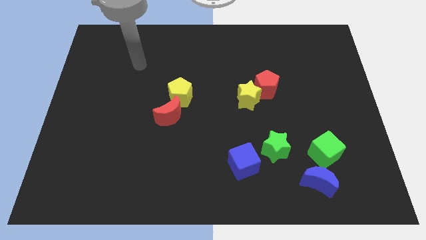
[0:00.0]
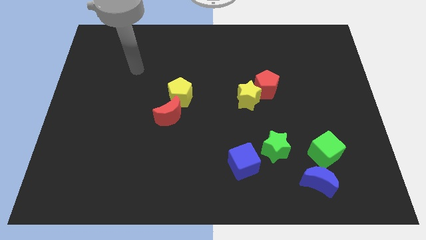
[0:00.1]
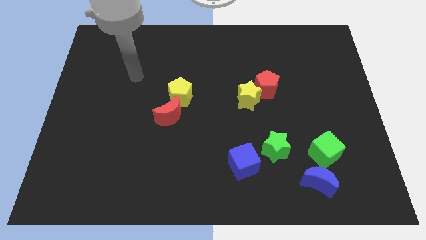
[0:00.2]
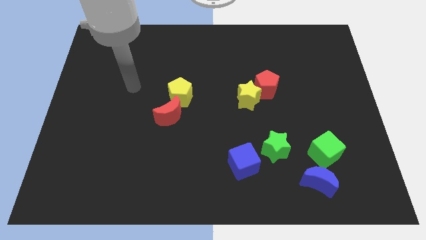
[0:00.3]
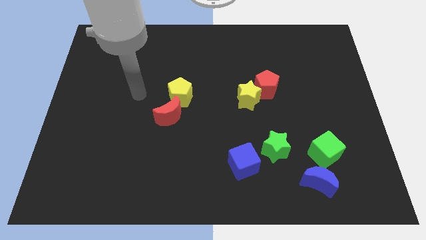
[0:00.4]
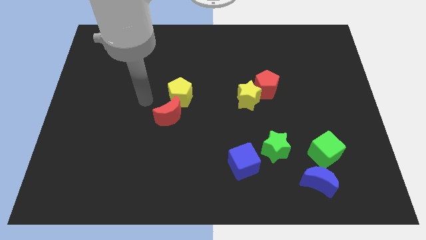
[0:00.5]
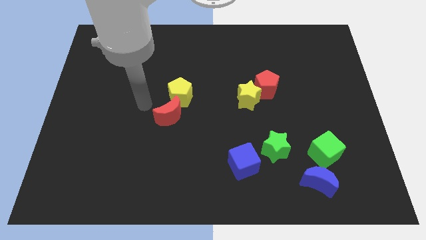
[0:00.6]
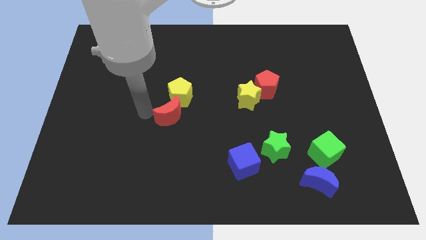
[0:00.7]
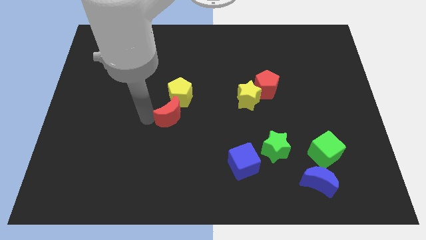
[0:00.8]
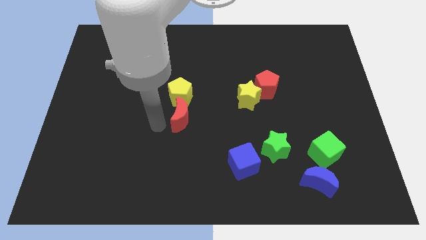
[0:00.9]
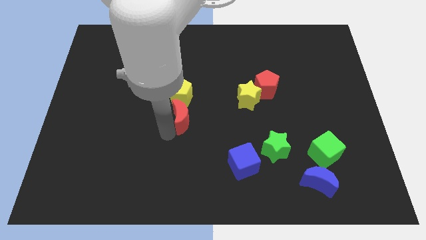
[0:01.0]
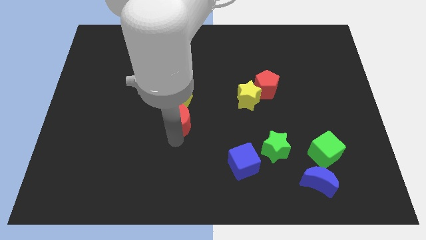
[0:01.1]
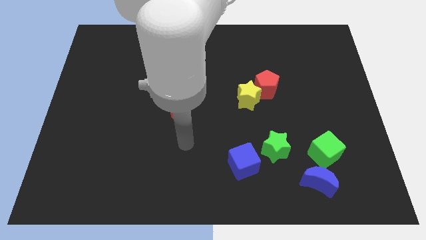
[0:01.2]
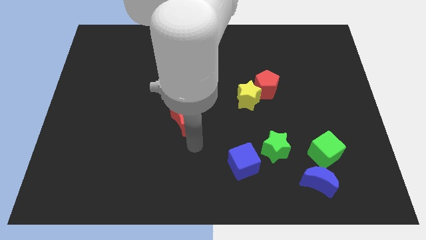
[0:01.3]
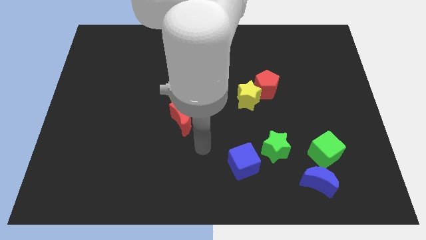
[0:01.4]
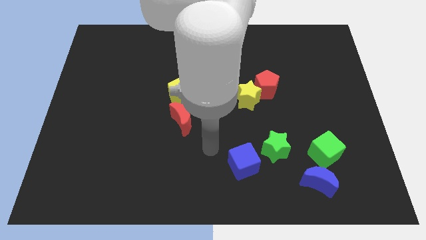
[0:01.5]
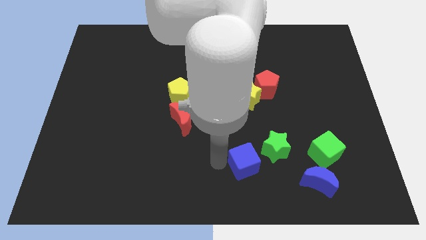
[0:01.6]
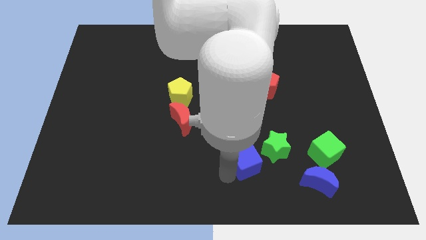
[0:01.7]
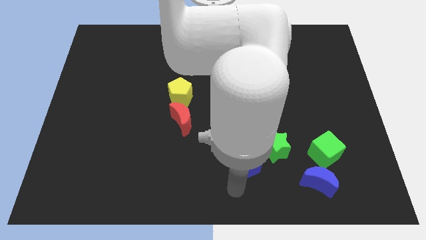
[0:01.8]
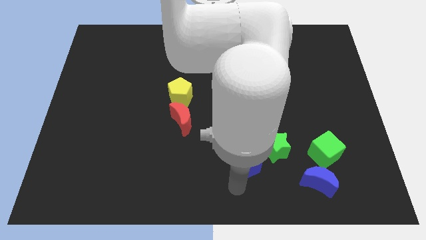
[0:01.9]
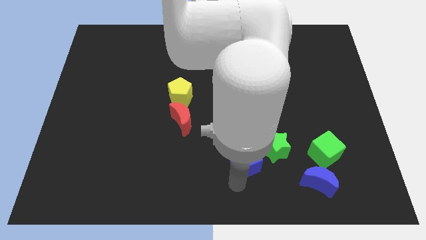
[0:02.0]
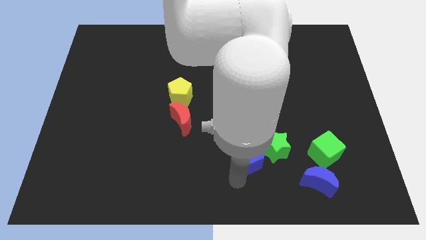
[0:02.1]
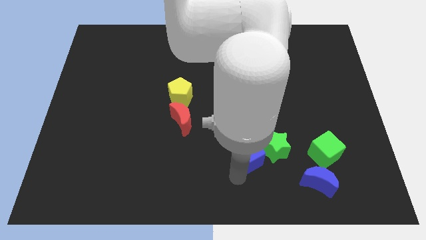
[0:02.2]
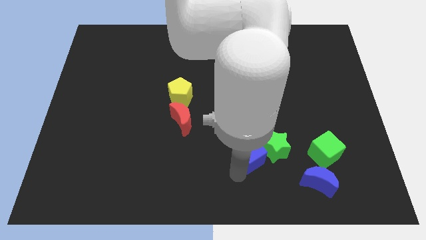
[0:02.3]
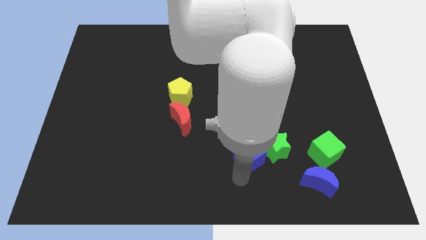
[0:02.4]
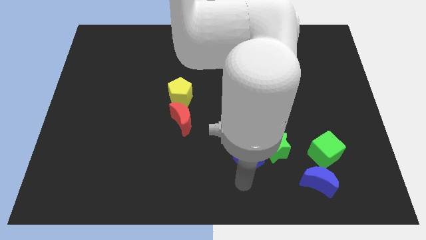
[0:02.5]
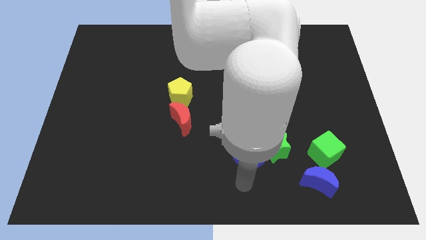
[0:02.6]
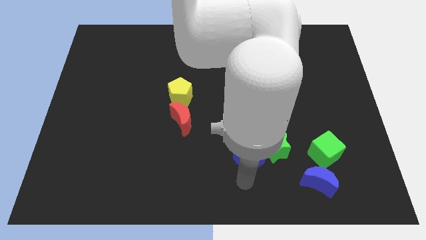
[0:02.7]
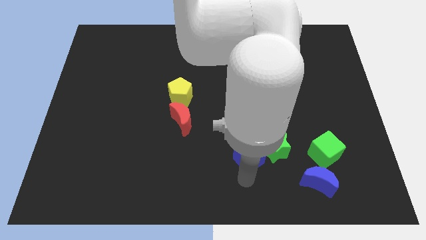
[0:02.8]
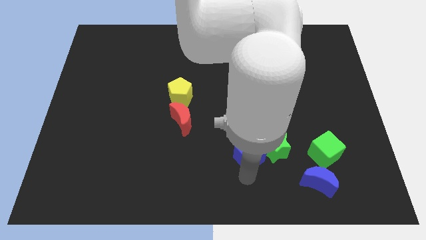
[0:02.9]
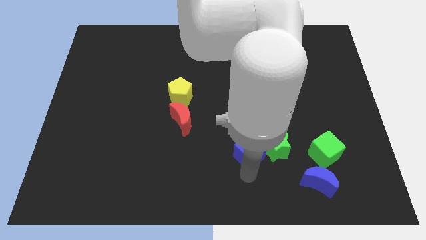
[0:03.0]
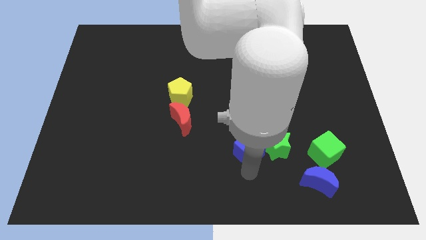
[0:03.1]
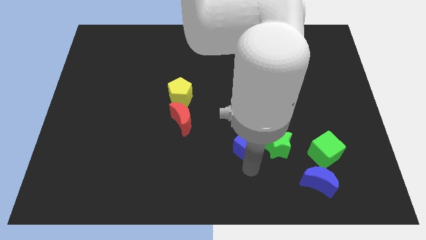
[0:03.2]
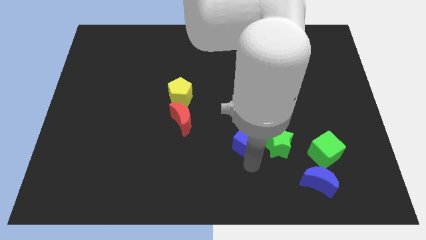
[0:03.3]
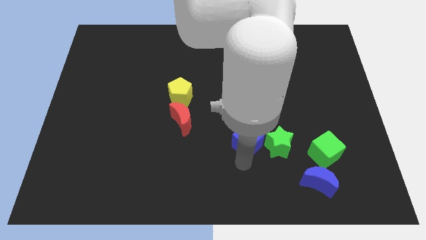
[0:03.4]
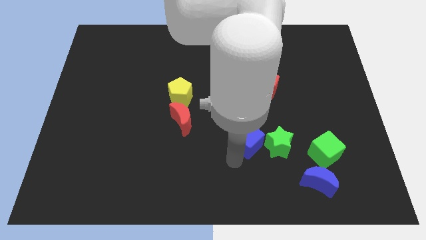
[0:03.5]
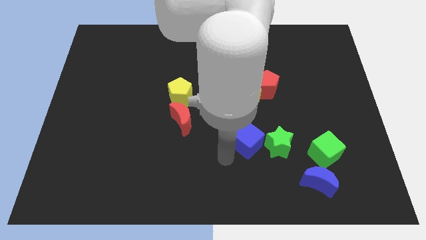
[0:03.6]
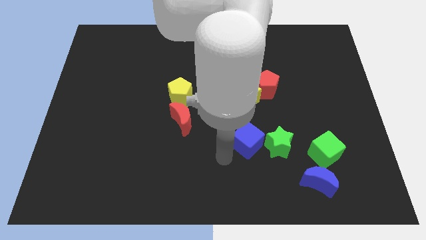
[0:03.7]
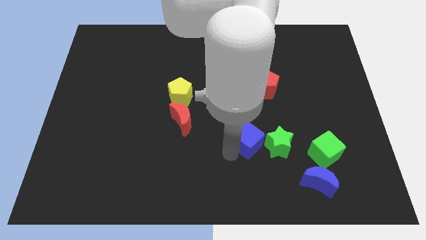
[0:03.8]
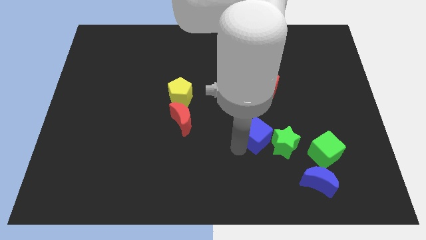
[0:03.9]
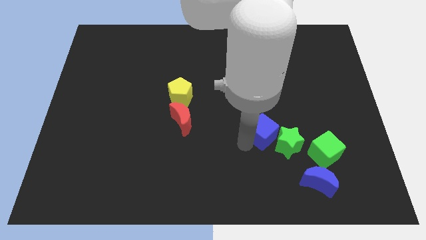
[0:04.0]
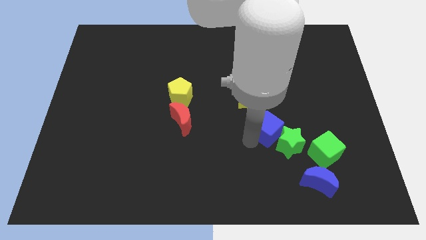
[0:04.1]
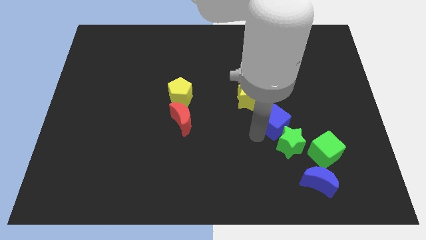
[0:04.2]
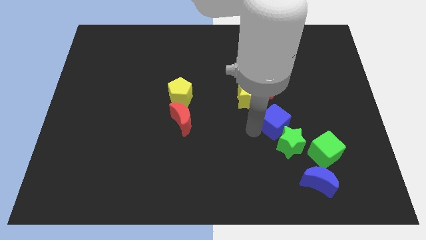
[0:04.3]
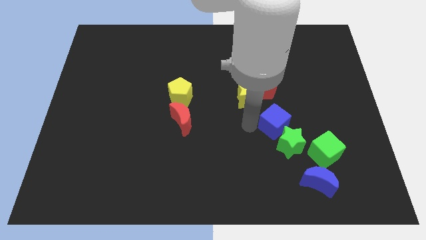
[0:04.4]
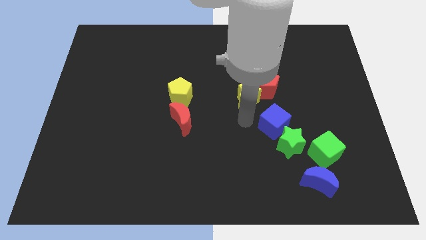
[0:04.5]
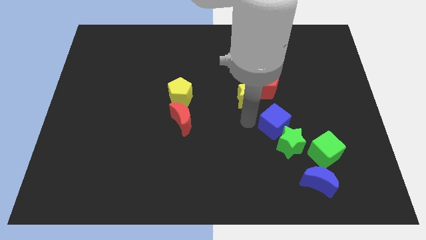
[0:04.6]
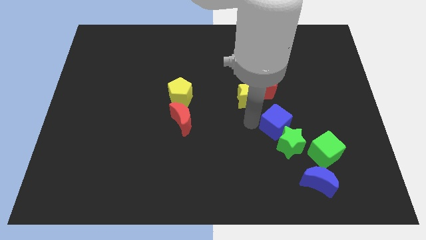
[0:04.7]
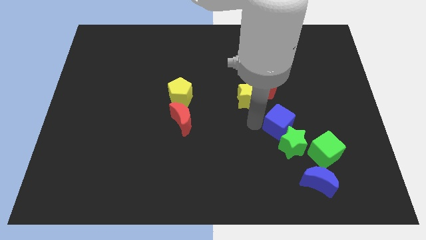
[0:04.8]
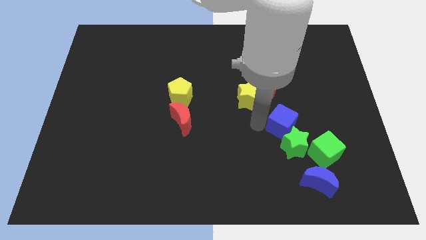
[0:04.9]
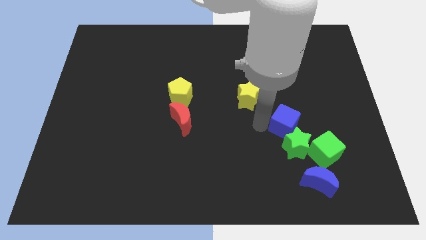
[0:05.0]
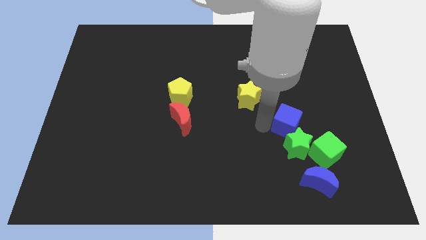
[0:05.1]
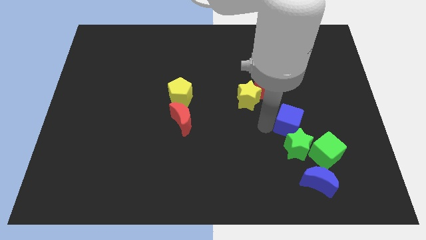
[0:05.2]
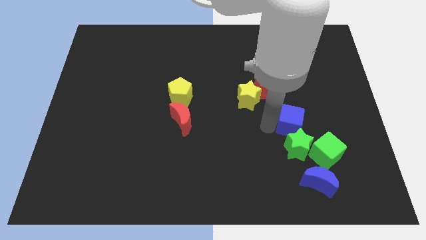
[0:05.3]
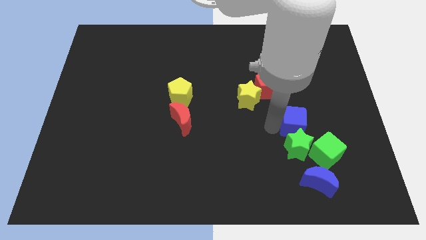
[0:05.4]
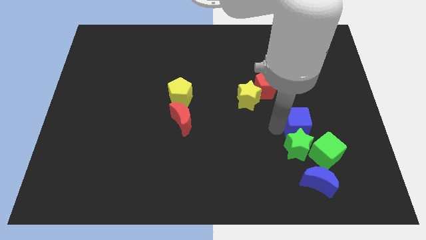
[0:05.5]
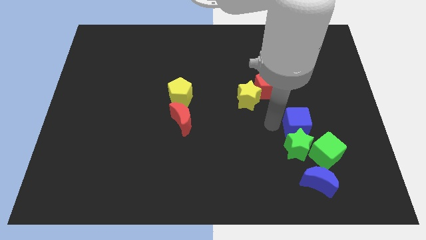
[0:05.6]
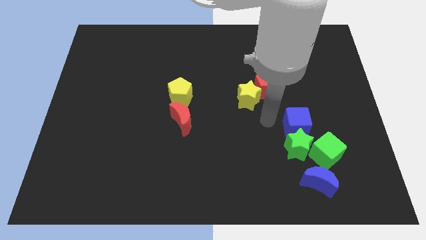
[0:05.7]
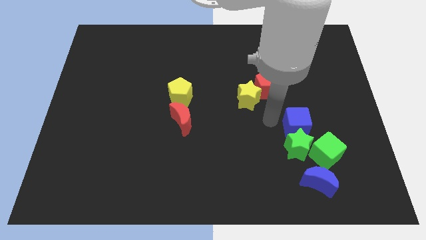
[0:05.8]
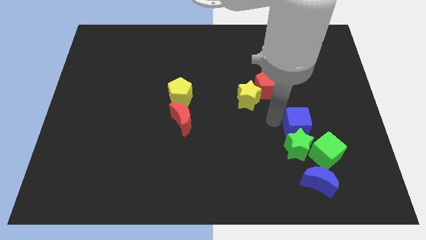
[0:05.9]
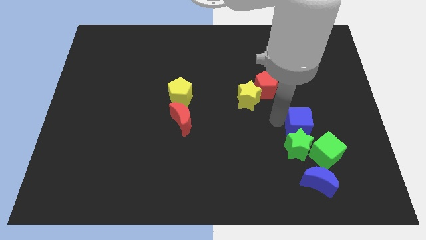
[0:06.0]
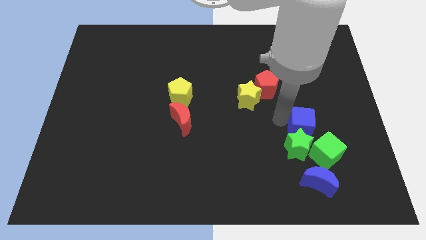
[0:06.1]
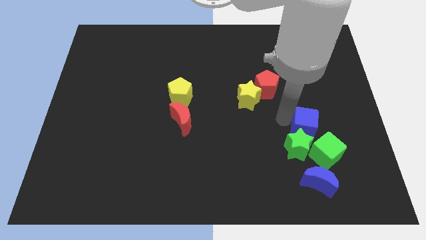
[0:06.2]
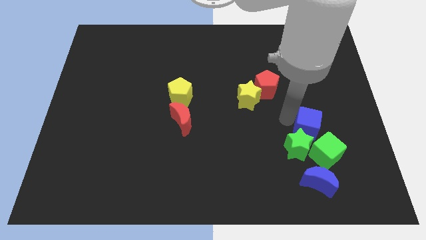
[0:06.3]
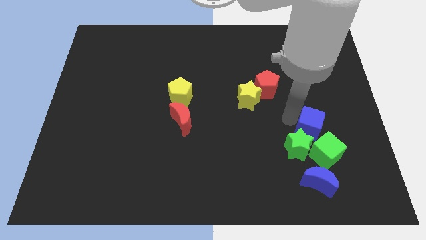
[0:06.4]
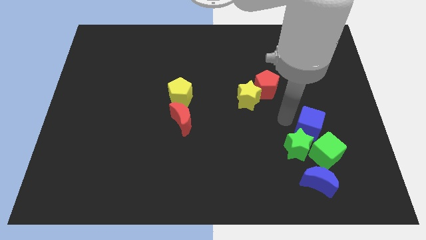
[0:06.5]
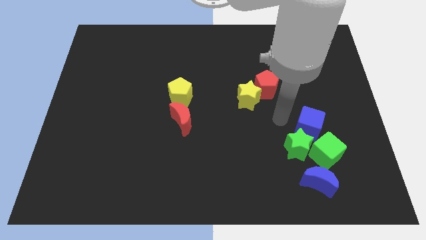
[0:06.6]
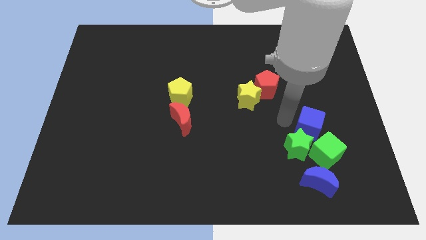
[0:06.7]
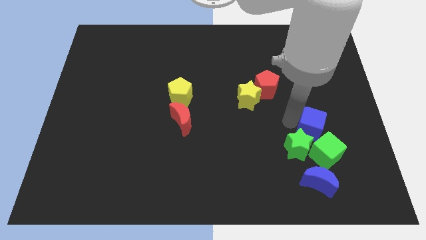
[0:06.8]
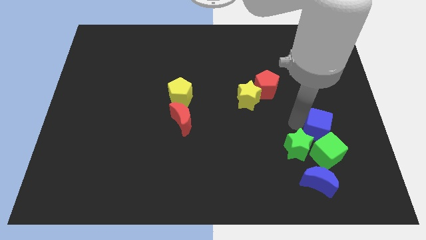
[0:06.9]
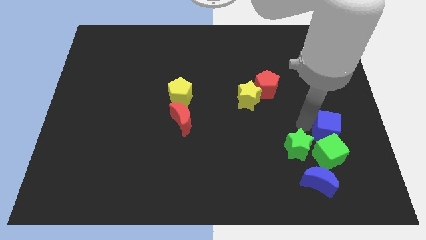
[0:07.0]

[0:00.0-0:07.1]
put the blue cube diagonally up and to the right of the green cube

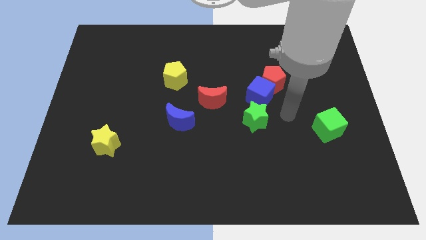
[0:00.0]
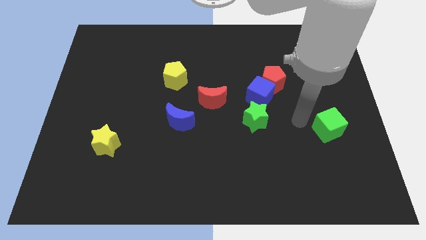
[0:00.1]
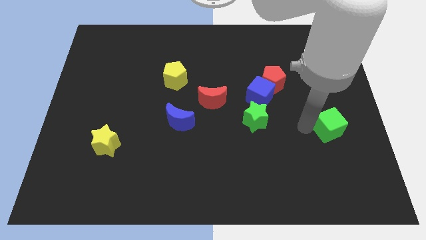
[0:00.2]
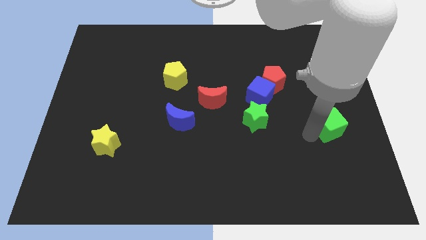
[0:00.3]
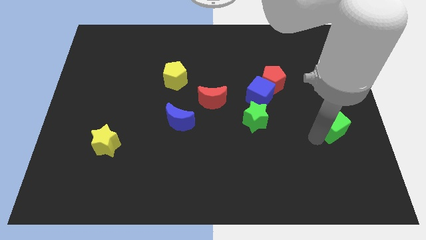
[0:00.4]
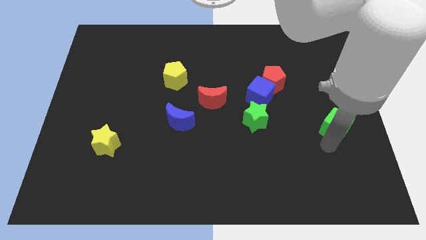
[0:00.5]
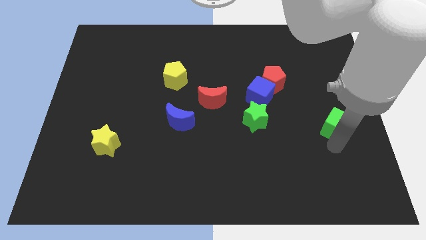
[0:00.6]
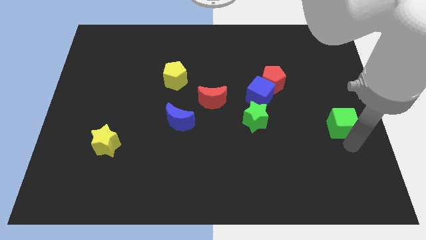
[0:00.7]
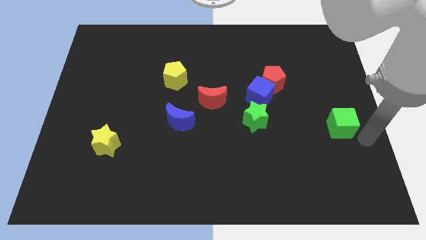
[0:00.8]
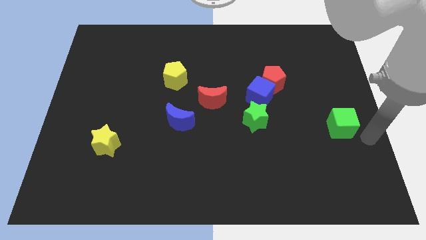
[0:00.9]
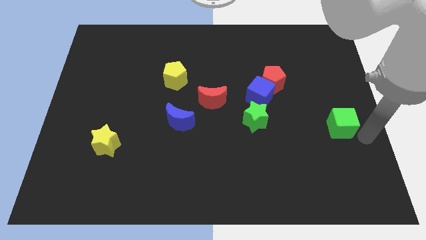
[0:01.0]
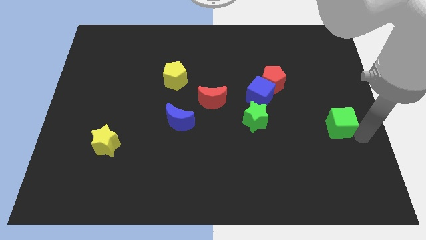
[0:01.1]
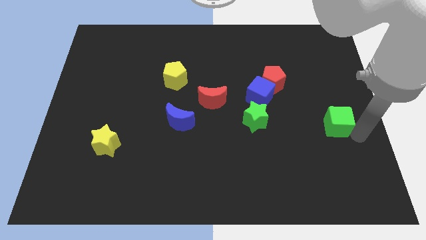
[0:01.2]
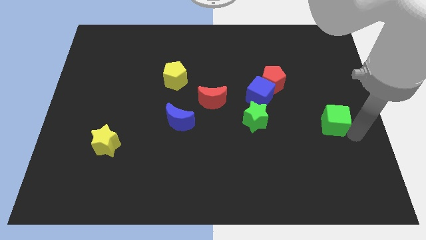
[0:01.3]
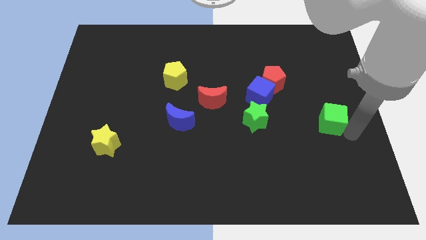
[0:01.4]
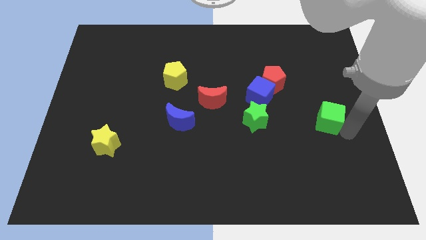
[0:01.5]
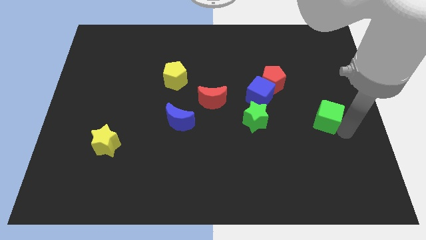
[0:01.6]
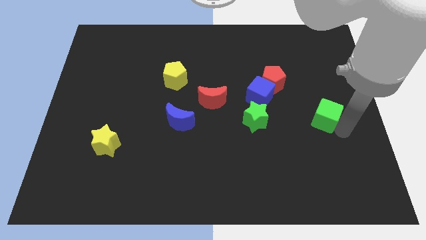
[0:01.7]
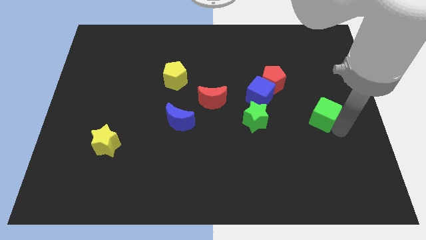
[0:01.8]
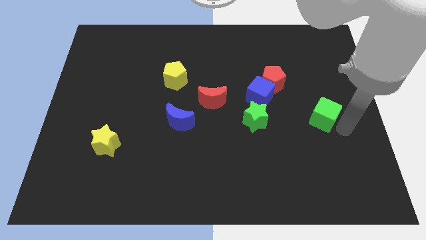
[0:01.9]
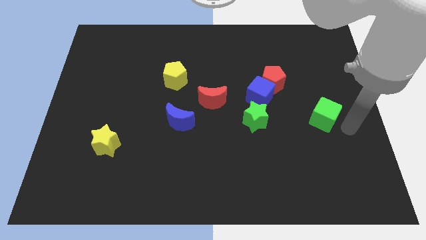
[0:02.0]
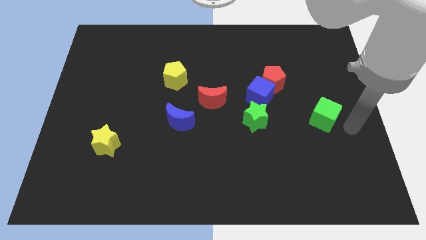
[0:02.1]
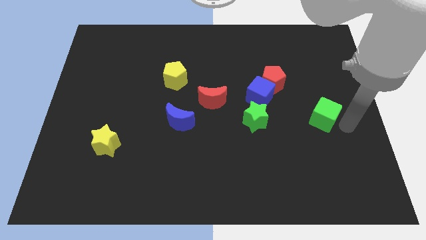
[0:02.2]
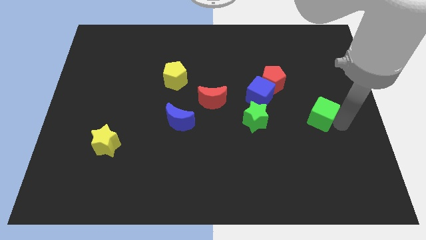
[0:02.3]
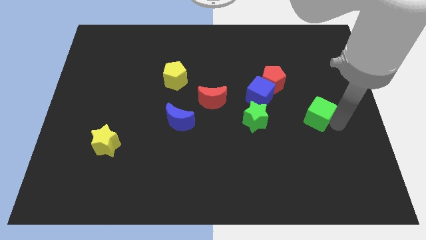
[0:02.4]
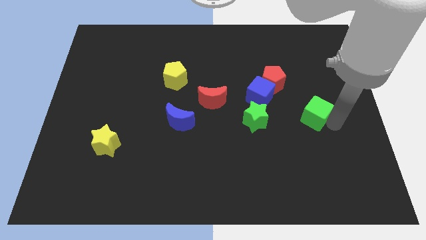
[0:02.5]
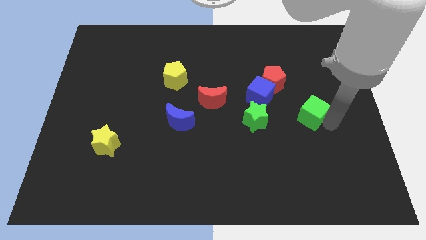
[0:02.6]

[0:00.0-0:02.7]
move the green cube diagonally down and to the right of the red pentagon
